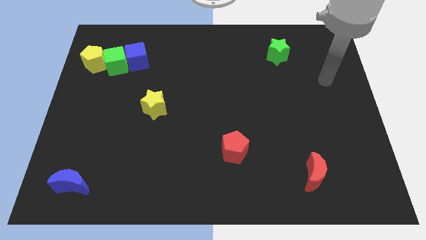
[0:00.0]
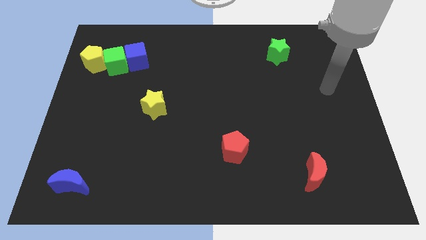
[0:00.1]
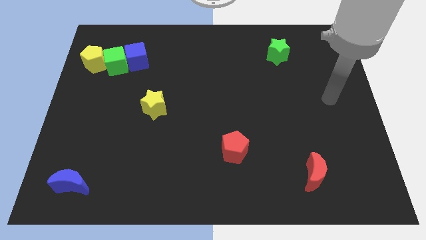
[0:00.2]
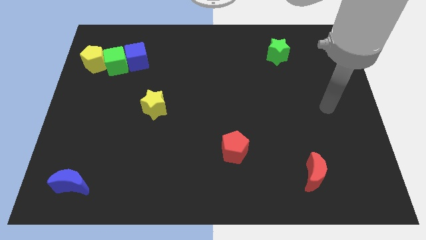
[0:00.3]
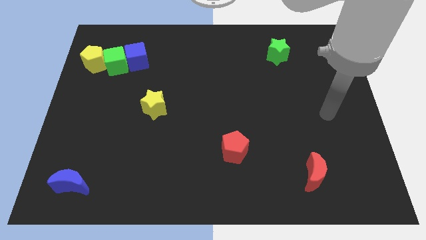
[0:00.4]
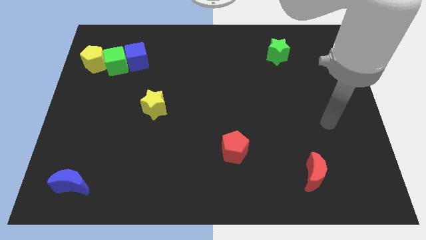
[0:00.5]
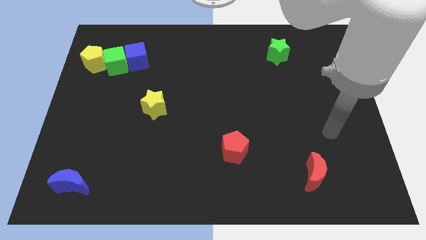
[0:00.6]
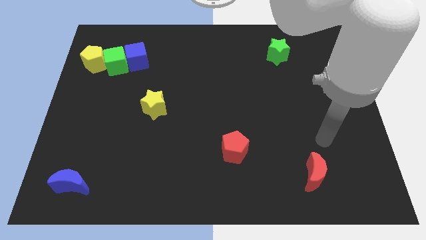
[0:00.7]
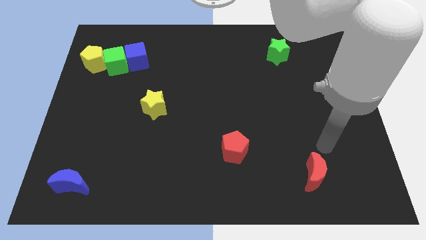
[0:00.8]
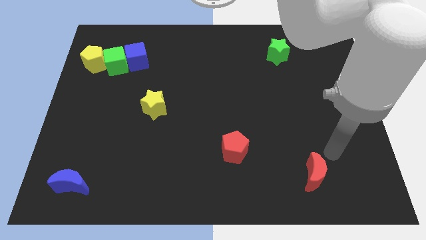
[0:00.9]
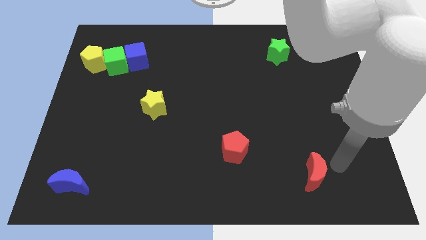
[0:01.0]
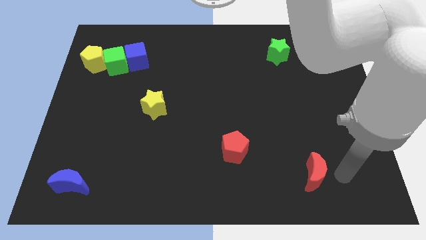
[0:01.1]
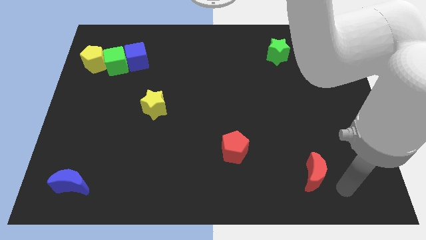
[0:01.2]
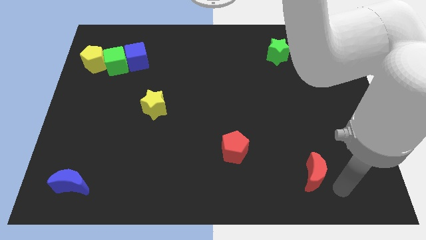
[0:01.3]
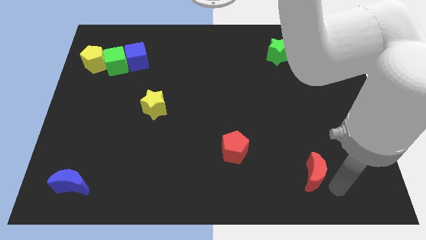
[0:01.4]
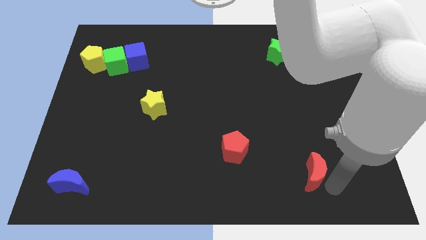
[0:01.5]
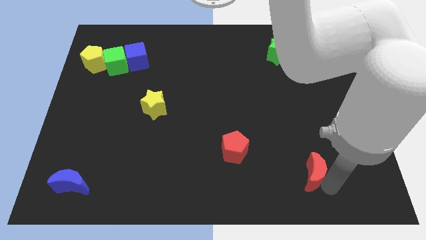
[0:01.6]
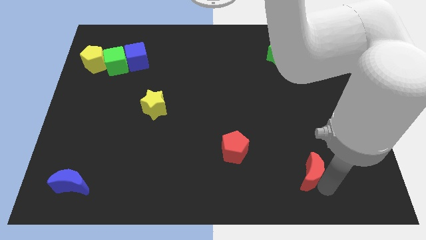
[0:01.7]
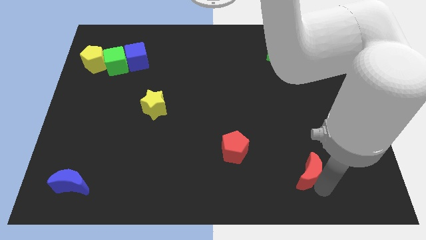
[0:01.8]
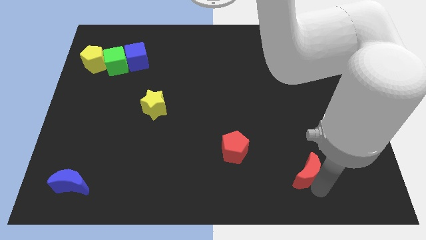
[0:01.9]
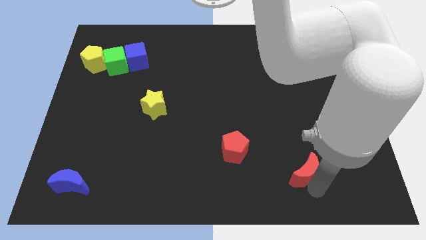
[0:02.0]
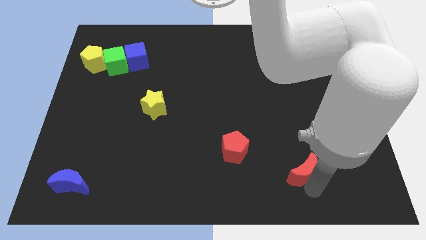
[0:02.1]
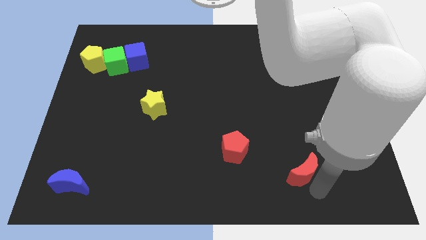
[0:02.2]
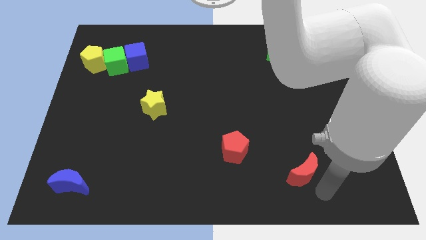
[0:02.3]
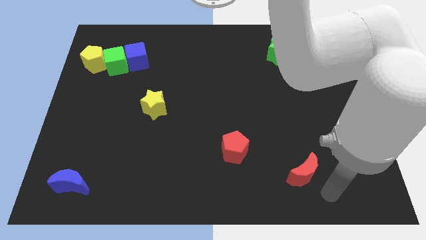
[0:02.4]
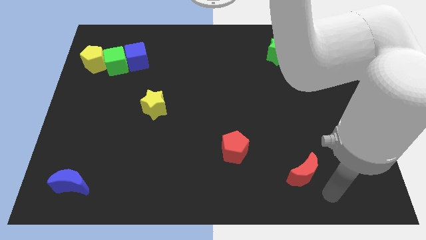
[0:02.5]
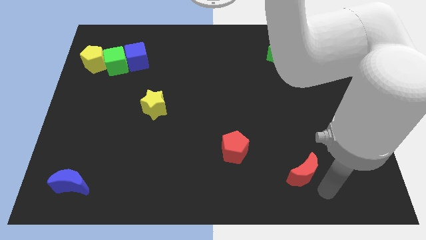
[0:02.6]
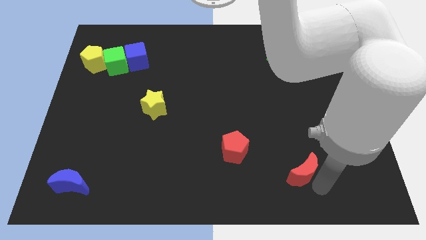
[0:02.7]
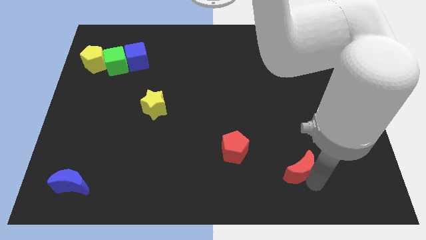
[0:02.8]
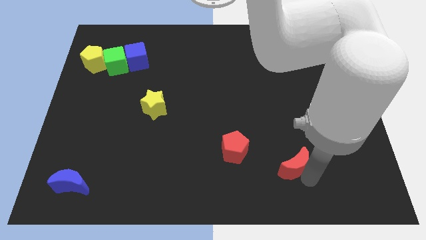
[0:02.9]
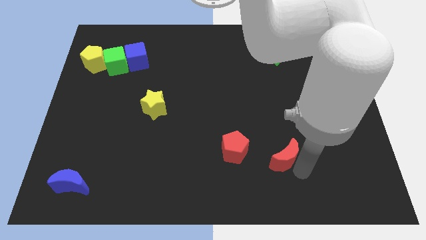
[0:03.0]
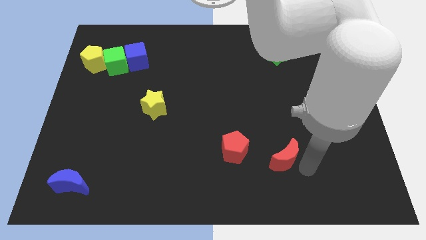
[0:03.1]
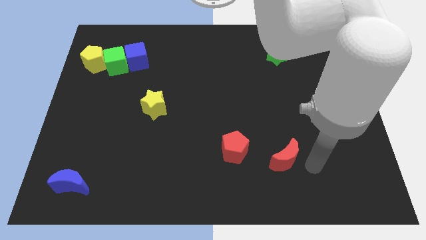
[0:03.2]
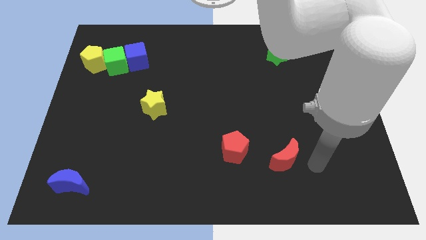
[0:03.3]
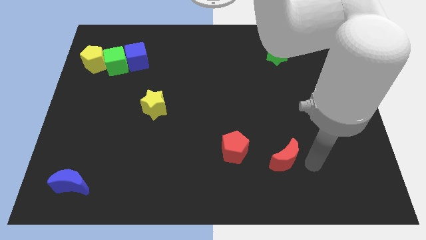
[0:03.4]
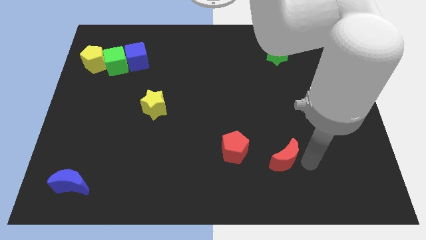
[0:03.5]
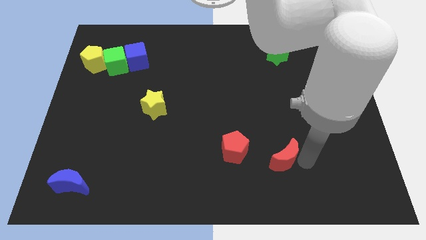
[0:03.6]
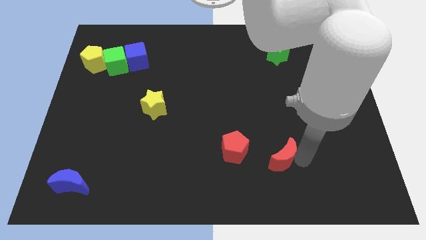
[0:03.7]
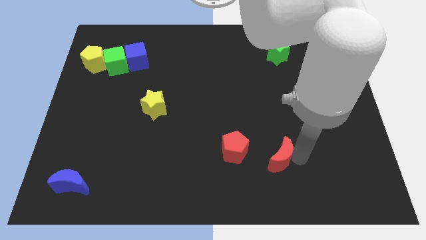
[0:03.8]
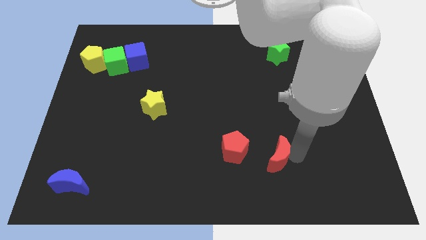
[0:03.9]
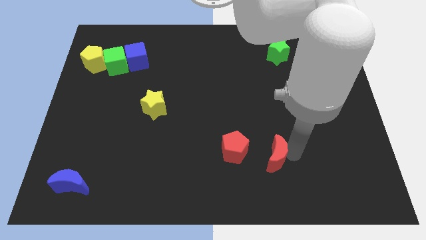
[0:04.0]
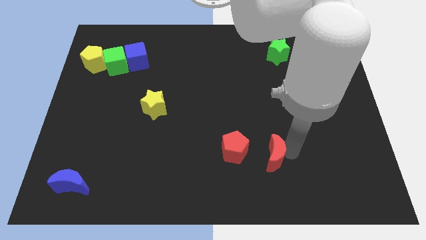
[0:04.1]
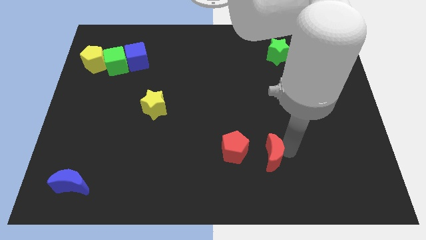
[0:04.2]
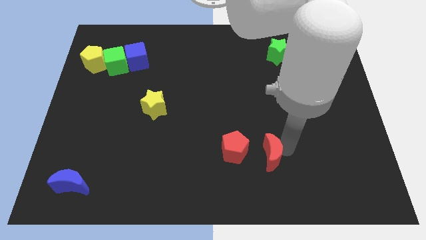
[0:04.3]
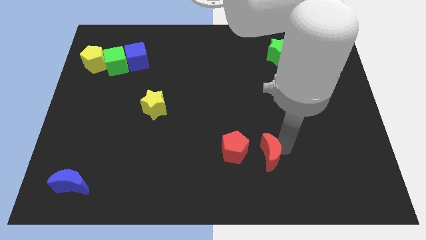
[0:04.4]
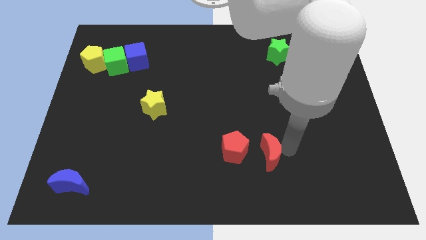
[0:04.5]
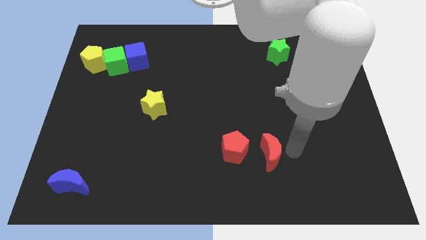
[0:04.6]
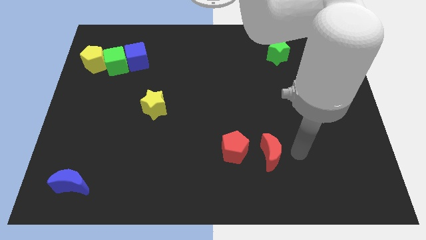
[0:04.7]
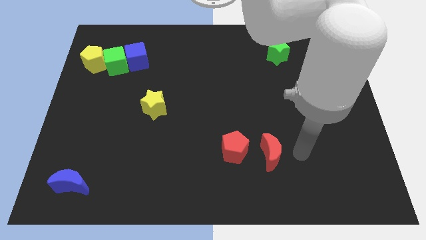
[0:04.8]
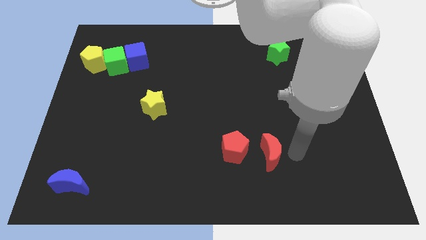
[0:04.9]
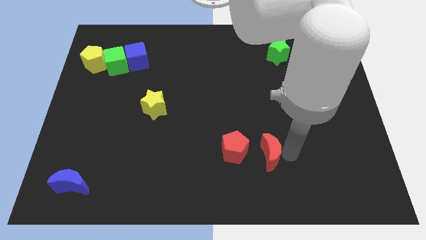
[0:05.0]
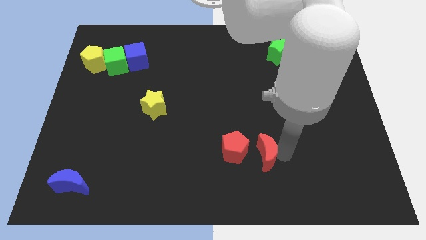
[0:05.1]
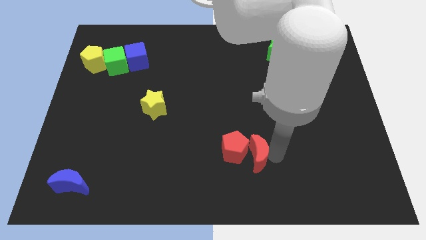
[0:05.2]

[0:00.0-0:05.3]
slide the red moon next to the red pentagon

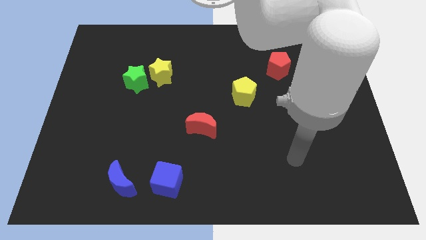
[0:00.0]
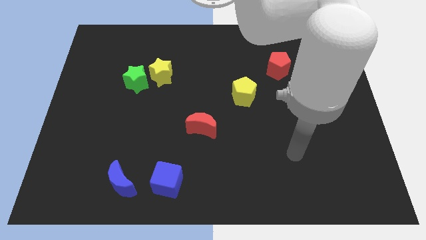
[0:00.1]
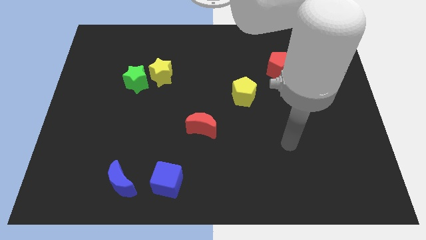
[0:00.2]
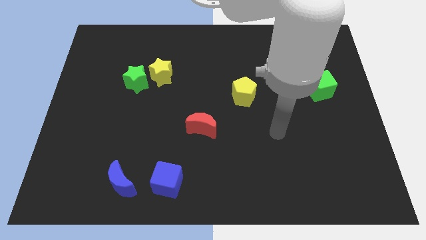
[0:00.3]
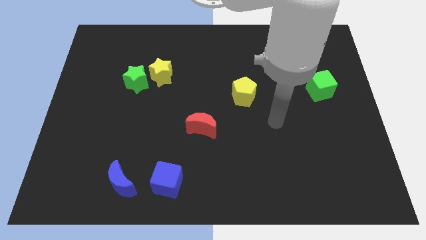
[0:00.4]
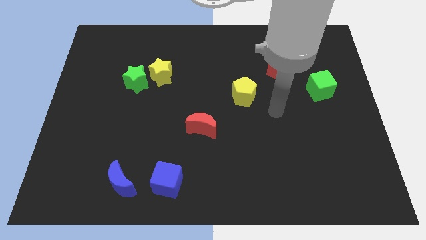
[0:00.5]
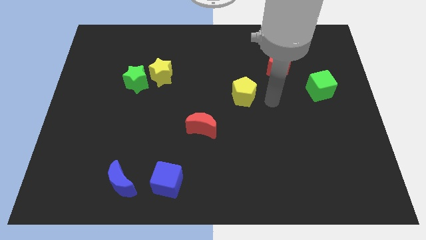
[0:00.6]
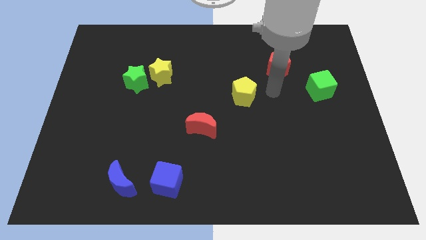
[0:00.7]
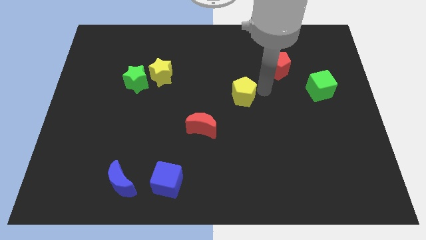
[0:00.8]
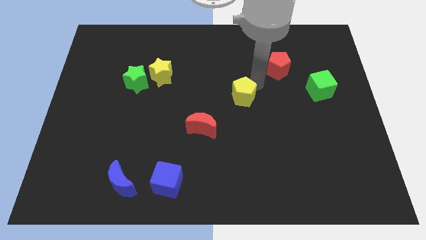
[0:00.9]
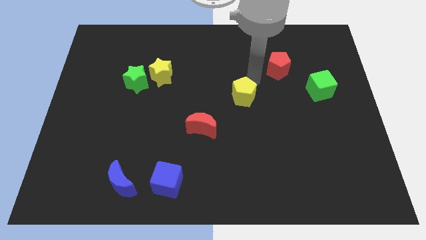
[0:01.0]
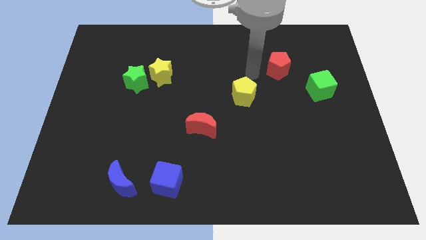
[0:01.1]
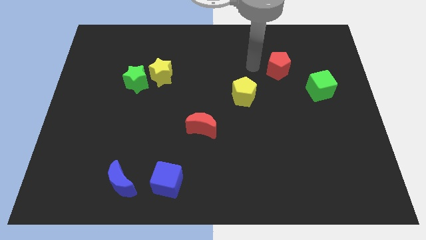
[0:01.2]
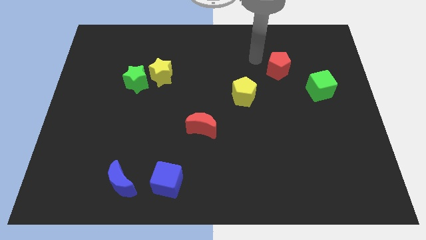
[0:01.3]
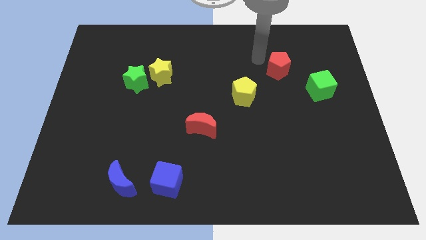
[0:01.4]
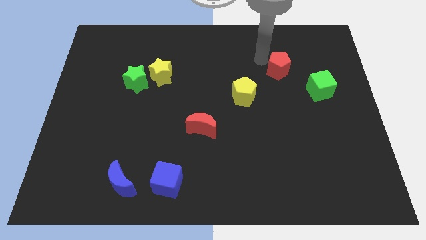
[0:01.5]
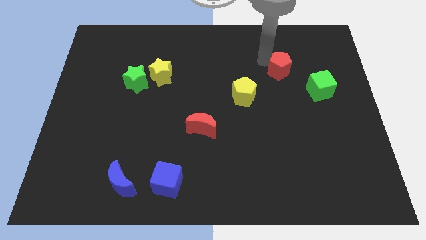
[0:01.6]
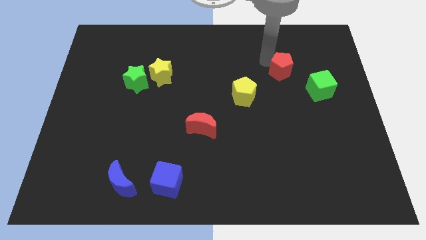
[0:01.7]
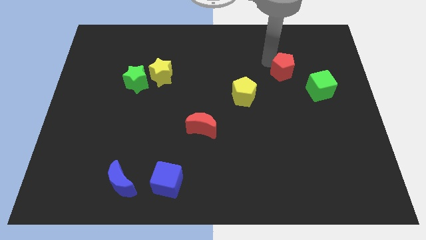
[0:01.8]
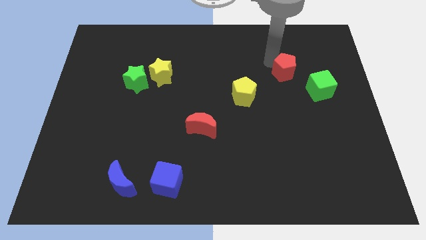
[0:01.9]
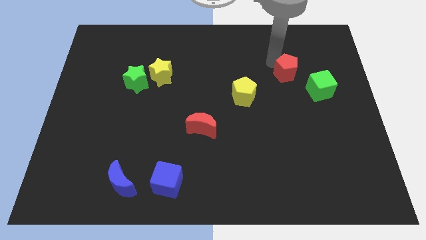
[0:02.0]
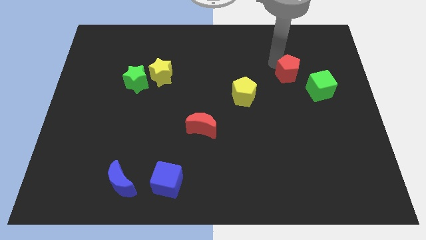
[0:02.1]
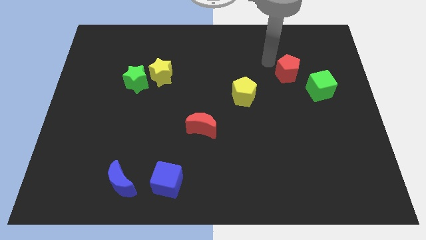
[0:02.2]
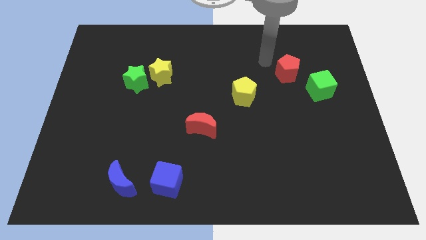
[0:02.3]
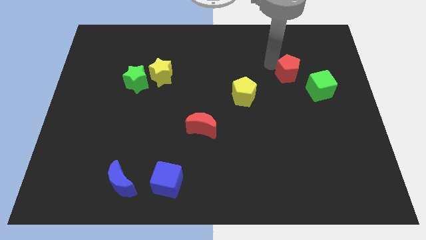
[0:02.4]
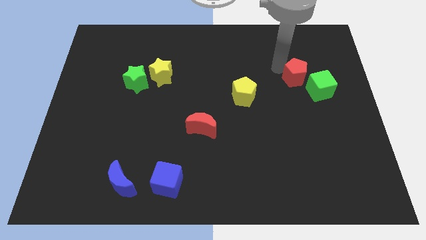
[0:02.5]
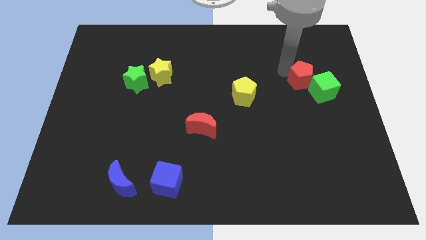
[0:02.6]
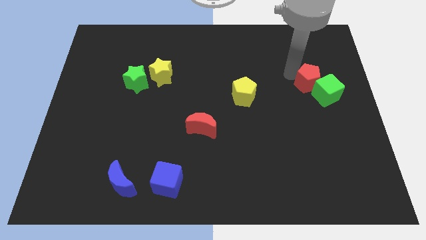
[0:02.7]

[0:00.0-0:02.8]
move the red pentagon towards the green cube
